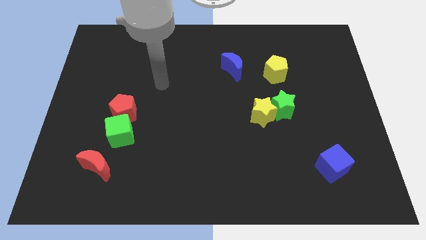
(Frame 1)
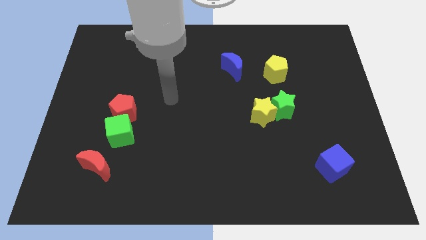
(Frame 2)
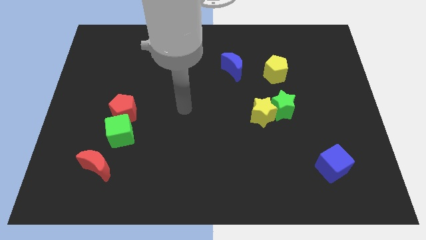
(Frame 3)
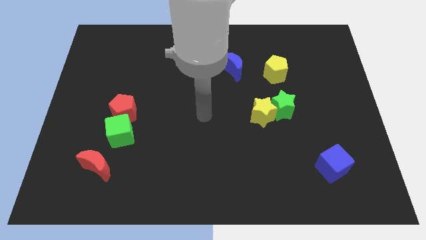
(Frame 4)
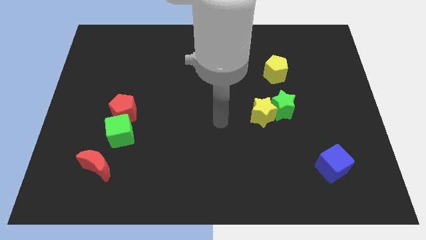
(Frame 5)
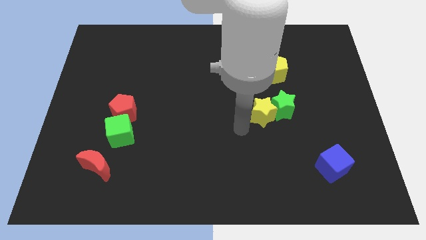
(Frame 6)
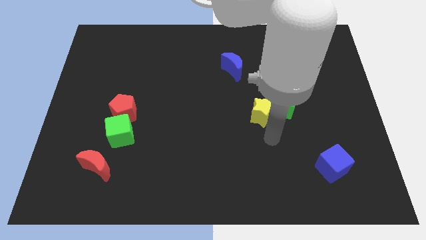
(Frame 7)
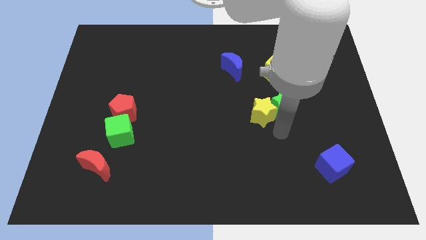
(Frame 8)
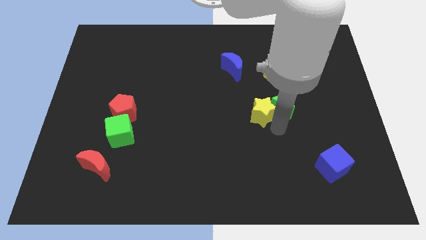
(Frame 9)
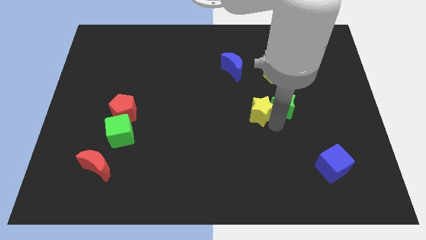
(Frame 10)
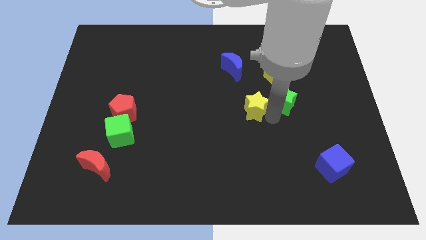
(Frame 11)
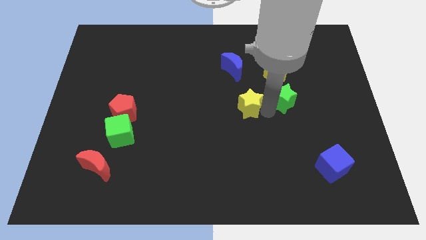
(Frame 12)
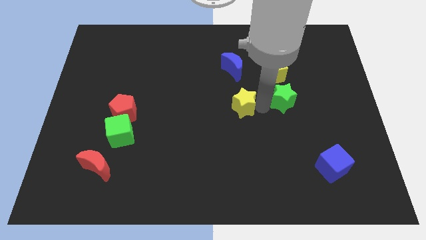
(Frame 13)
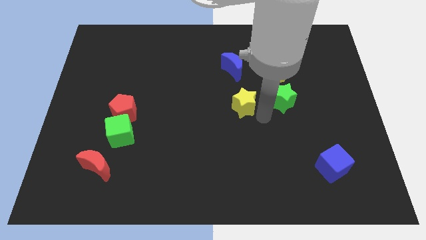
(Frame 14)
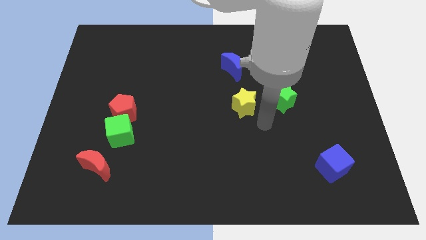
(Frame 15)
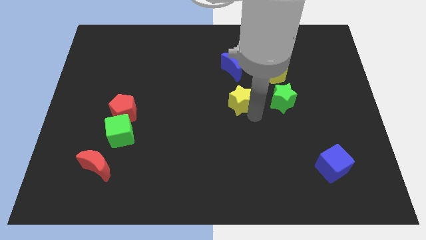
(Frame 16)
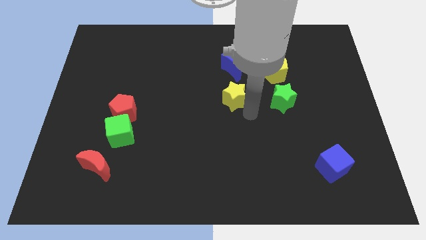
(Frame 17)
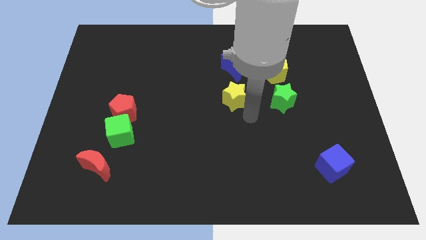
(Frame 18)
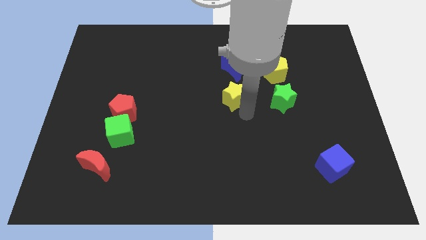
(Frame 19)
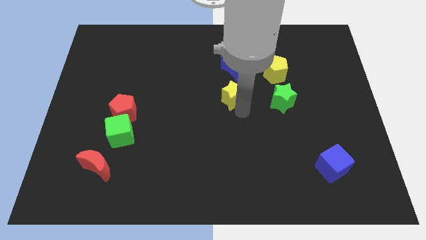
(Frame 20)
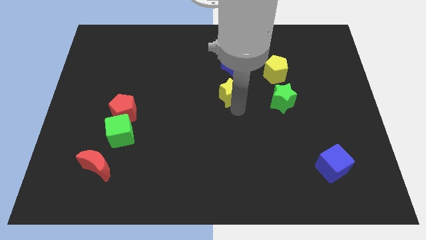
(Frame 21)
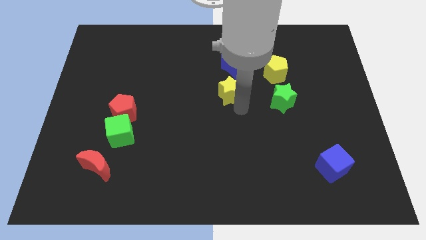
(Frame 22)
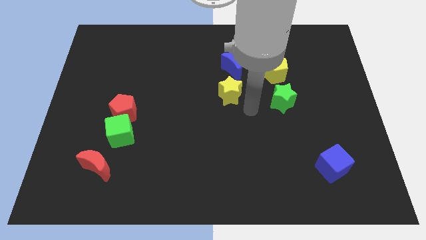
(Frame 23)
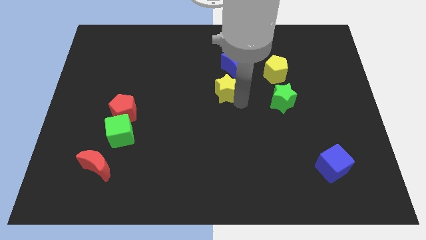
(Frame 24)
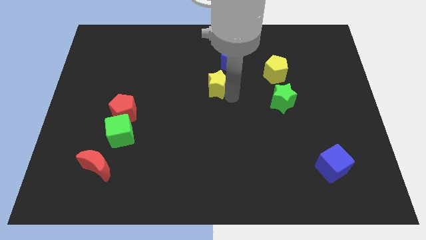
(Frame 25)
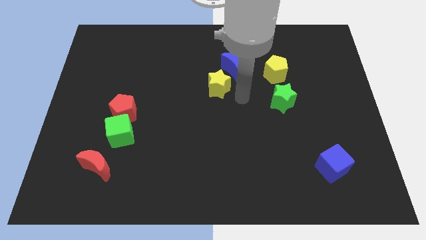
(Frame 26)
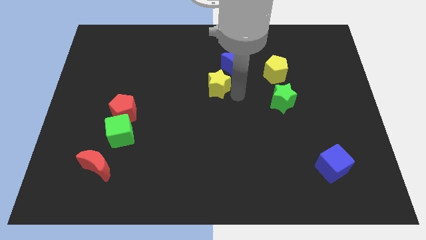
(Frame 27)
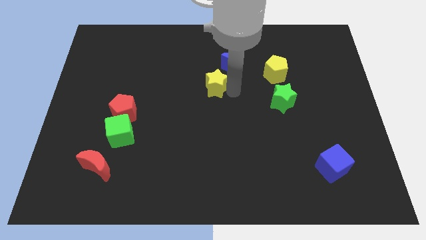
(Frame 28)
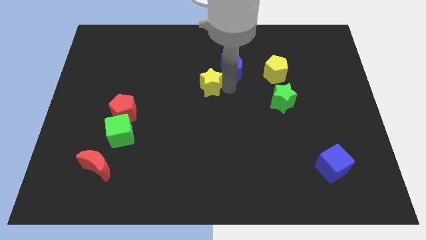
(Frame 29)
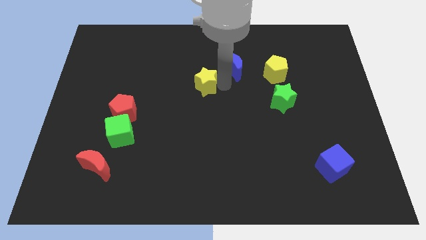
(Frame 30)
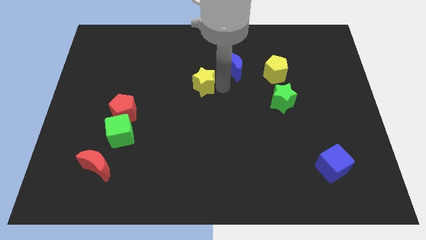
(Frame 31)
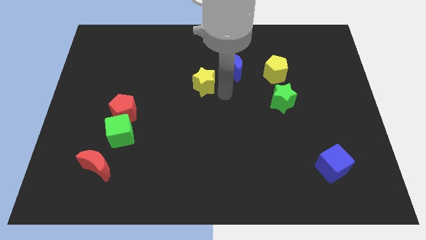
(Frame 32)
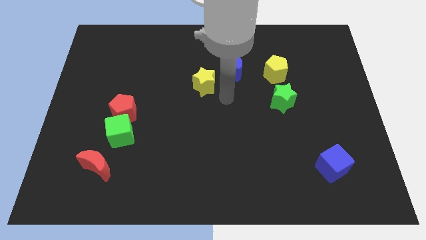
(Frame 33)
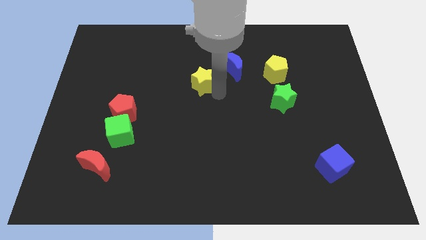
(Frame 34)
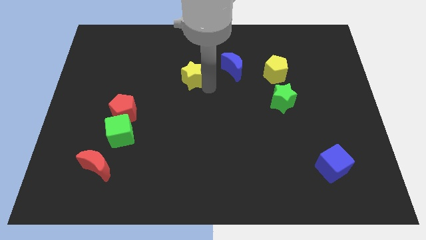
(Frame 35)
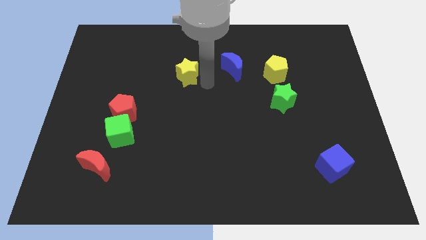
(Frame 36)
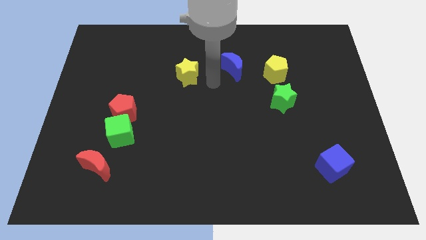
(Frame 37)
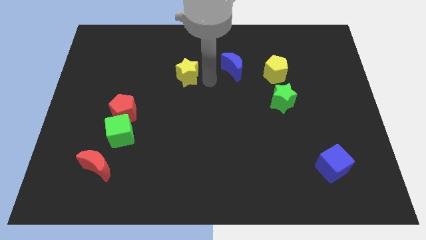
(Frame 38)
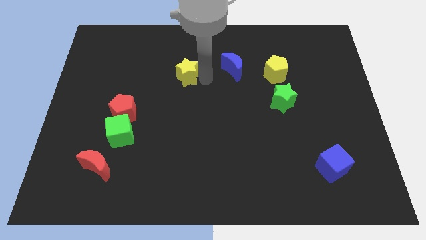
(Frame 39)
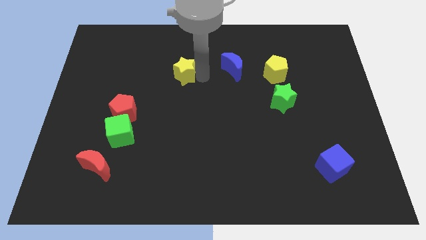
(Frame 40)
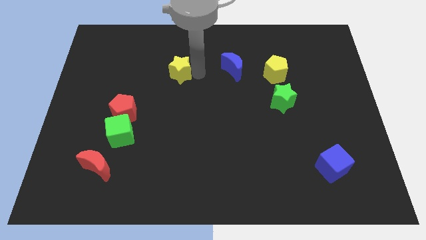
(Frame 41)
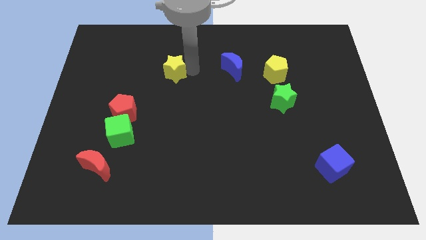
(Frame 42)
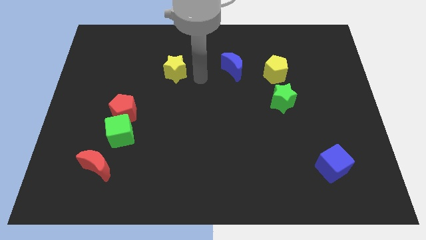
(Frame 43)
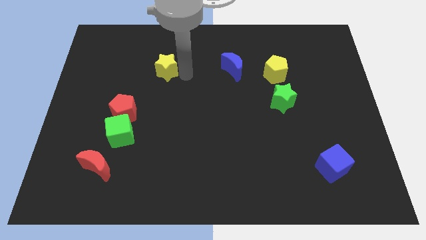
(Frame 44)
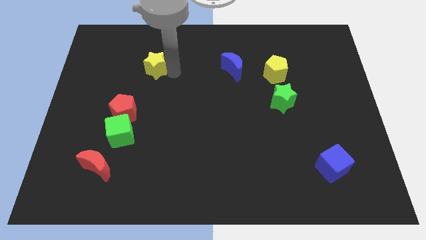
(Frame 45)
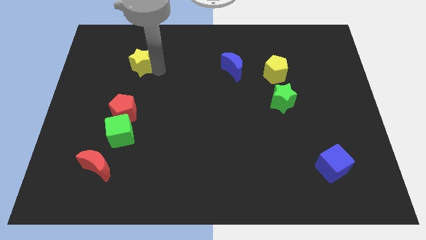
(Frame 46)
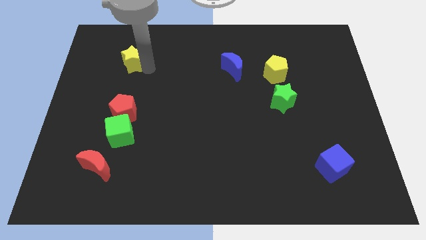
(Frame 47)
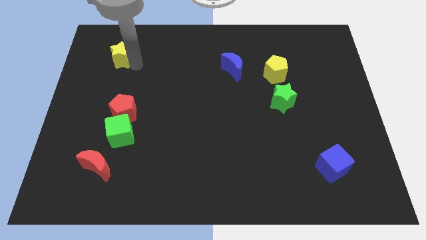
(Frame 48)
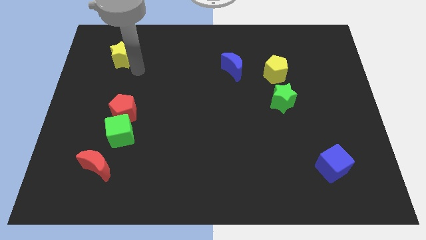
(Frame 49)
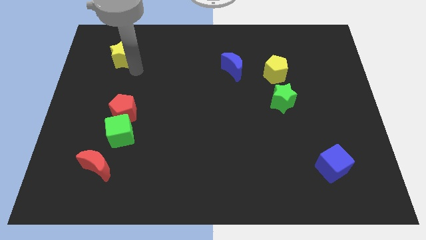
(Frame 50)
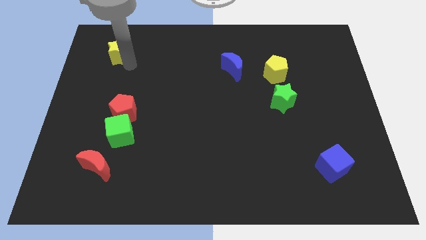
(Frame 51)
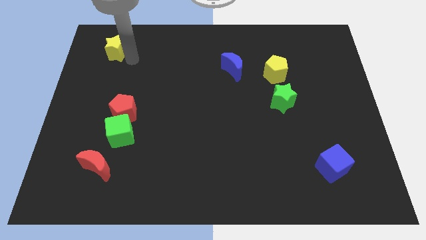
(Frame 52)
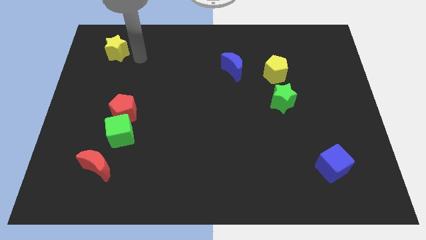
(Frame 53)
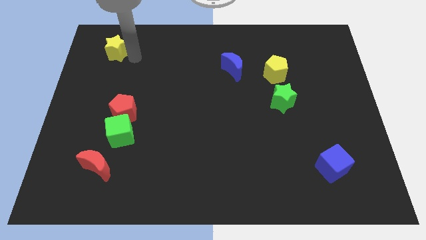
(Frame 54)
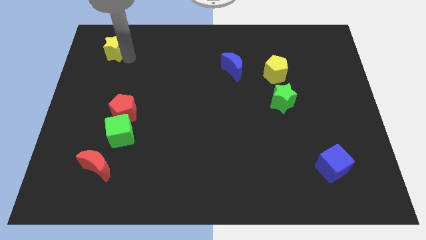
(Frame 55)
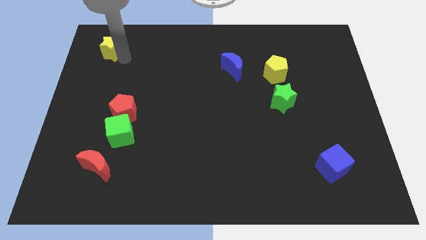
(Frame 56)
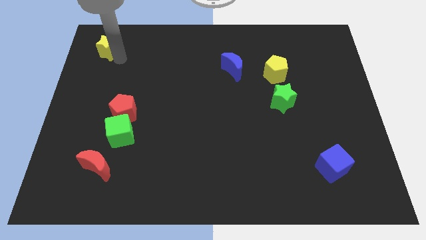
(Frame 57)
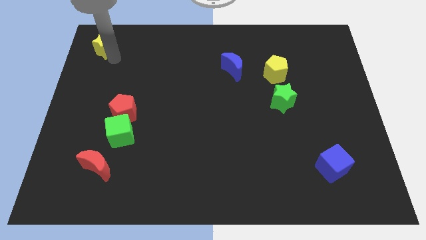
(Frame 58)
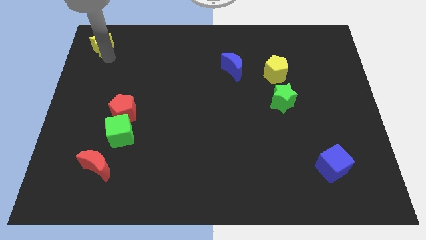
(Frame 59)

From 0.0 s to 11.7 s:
move the yellow star to the top left of the board

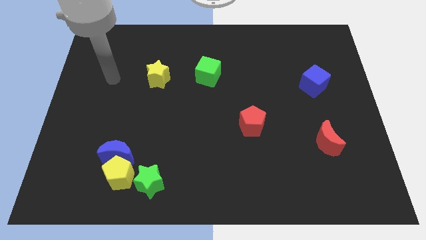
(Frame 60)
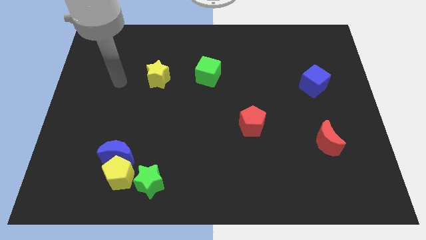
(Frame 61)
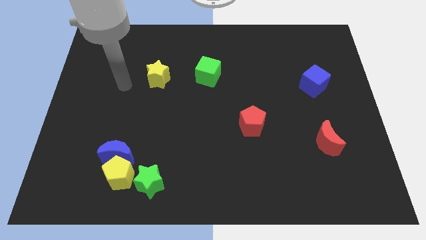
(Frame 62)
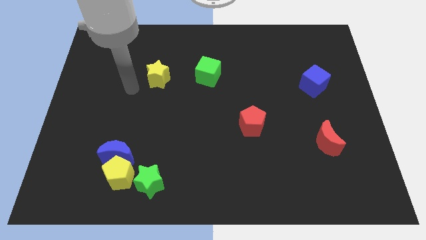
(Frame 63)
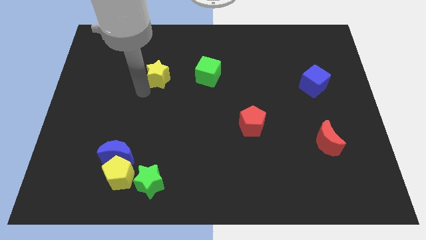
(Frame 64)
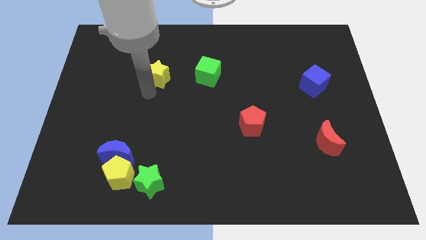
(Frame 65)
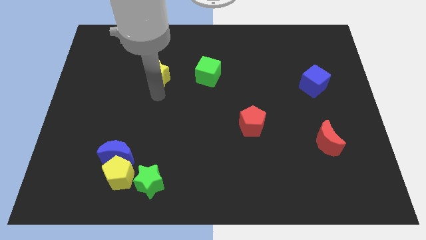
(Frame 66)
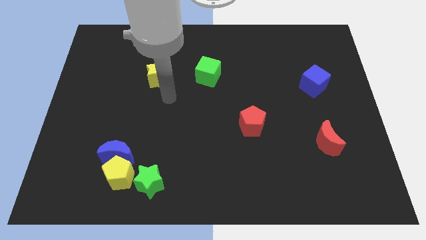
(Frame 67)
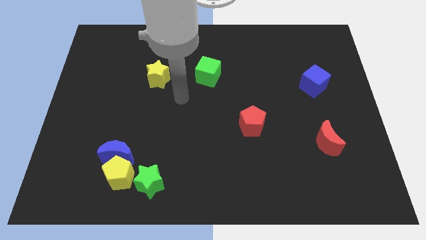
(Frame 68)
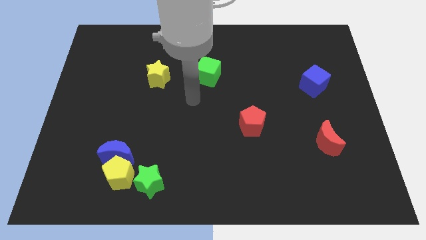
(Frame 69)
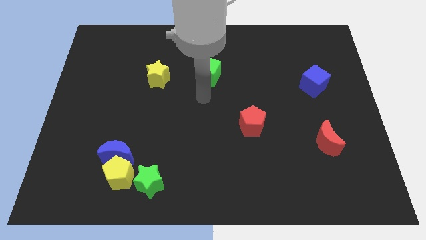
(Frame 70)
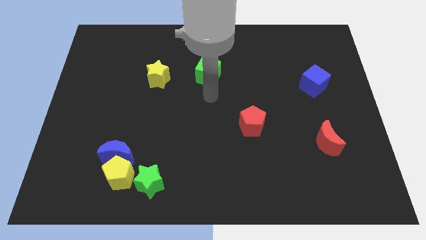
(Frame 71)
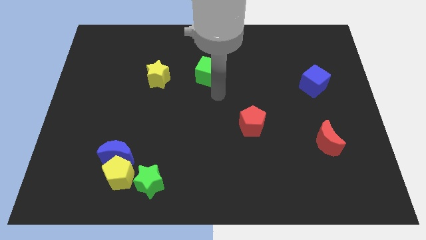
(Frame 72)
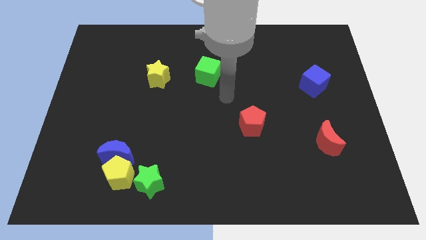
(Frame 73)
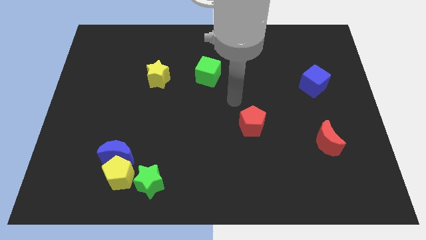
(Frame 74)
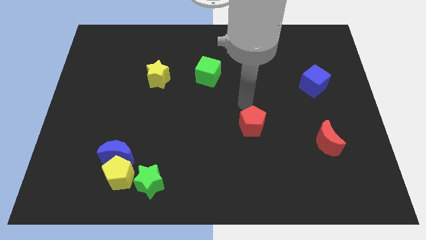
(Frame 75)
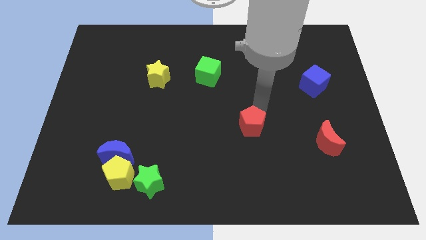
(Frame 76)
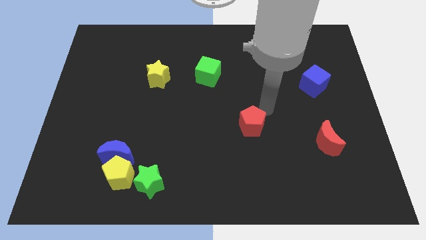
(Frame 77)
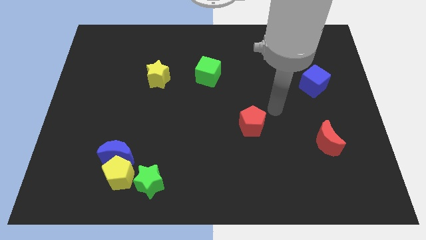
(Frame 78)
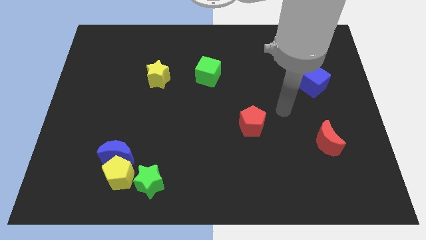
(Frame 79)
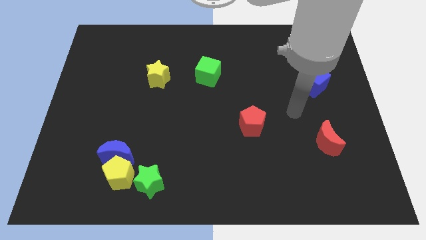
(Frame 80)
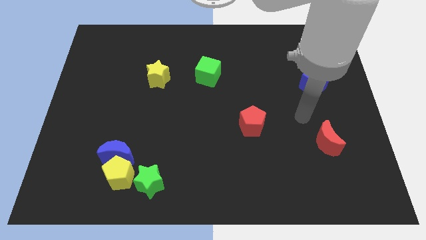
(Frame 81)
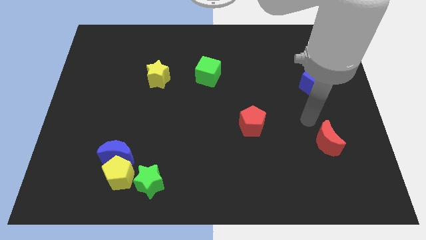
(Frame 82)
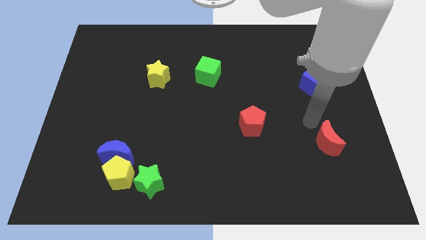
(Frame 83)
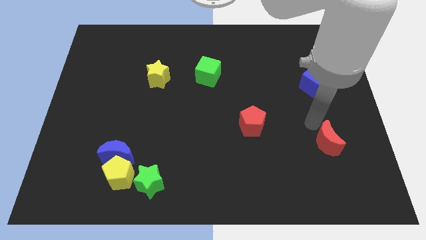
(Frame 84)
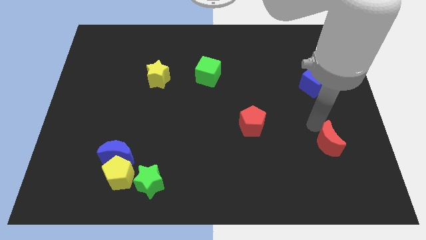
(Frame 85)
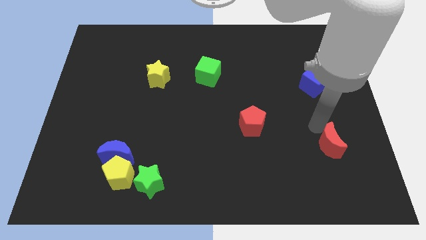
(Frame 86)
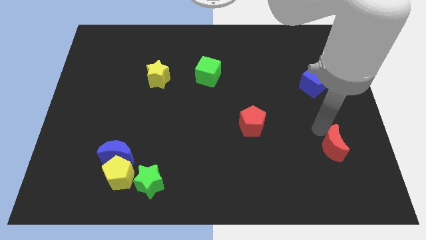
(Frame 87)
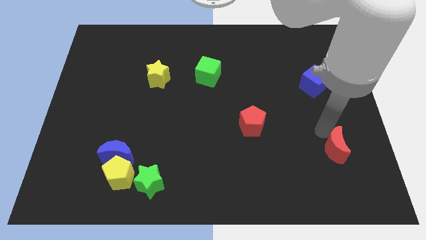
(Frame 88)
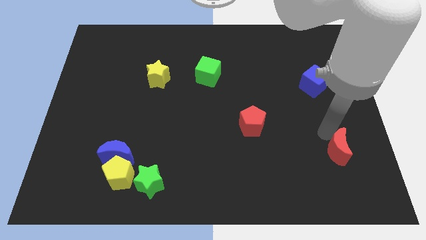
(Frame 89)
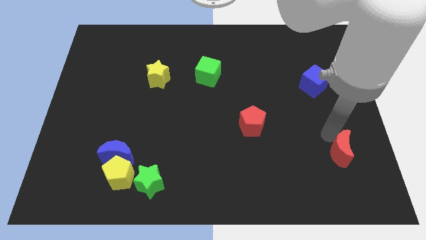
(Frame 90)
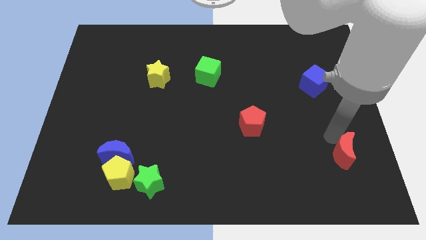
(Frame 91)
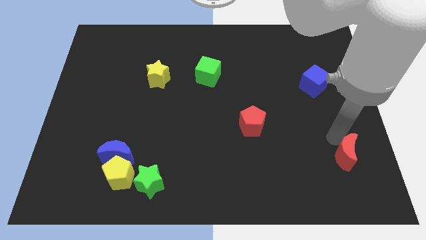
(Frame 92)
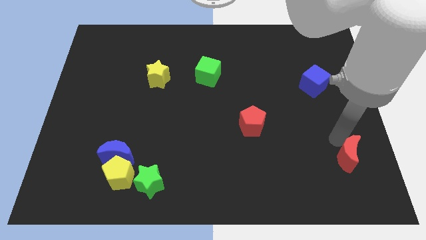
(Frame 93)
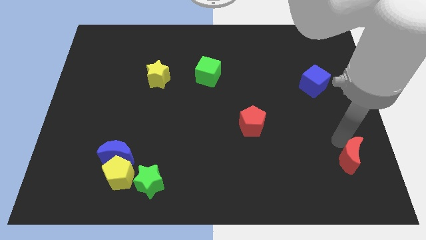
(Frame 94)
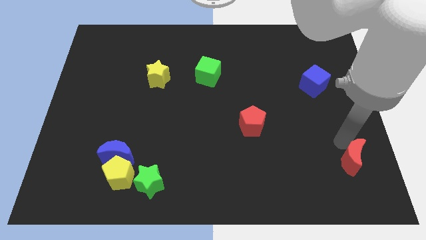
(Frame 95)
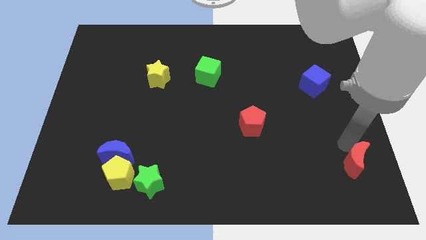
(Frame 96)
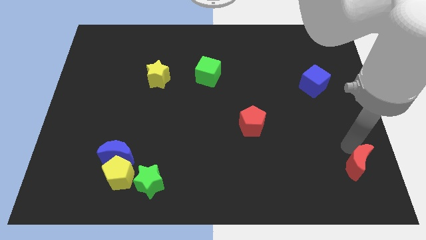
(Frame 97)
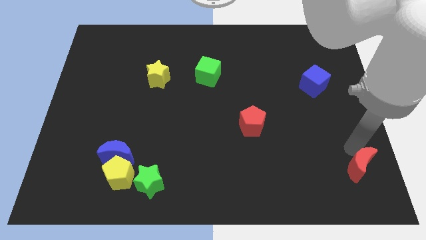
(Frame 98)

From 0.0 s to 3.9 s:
move the red moon to the bottom right
